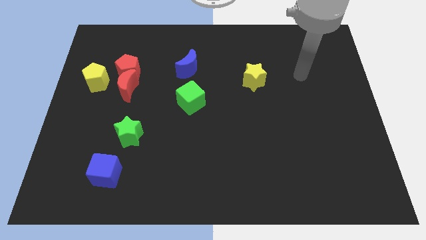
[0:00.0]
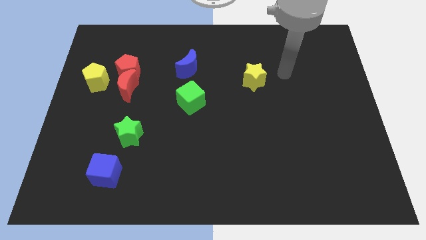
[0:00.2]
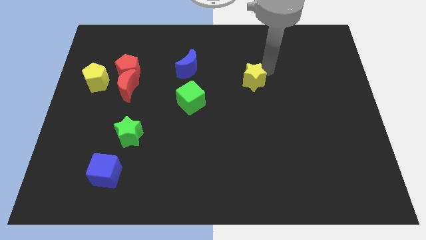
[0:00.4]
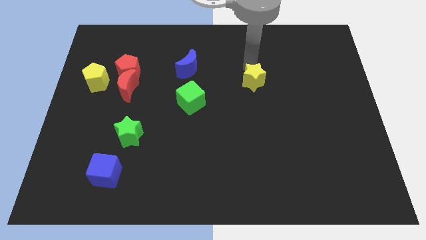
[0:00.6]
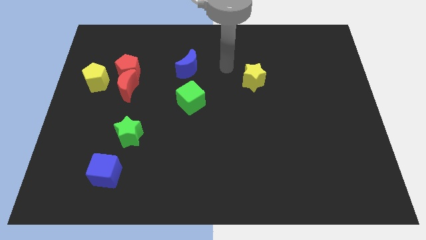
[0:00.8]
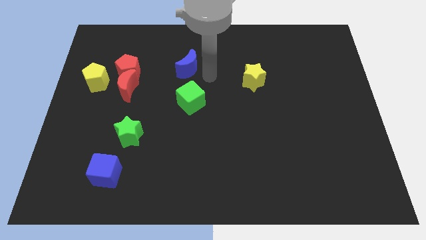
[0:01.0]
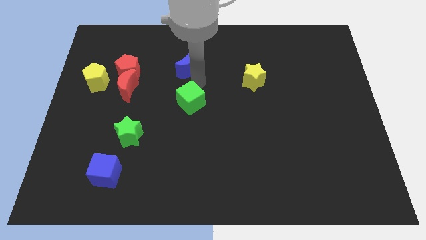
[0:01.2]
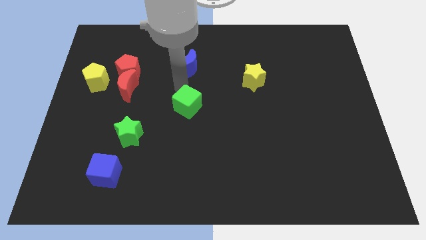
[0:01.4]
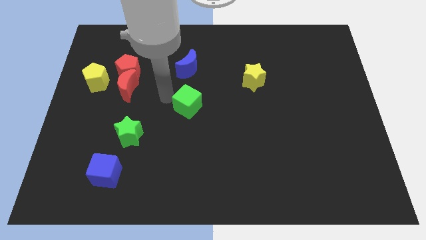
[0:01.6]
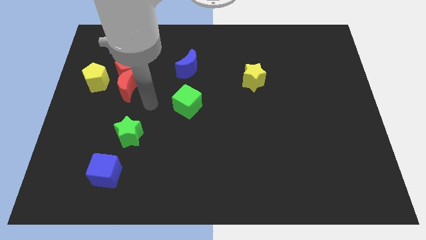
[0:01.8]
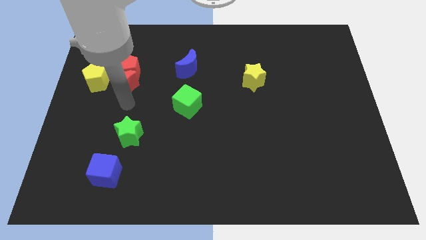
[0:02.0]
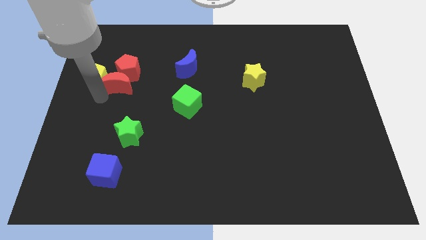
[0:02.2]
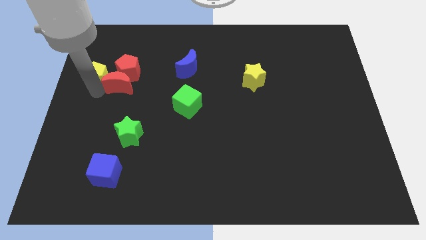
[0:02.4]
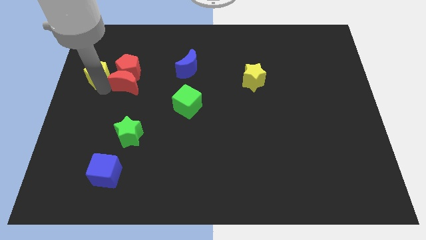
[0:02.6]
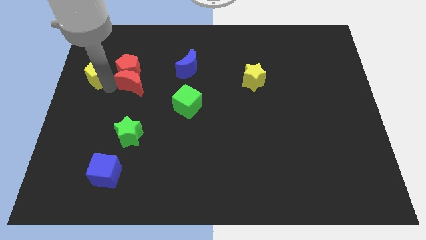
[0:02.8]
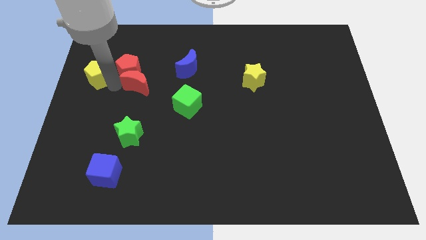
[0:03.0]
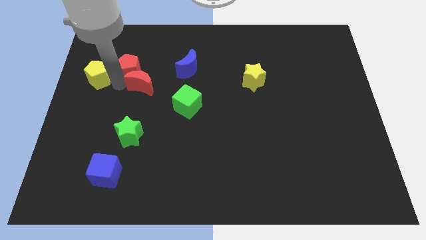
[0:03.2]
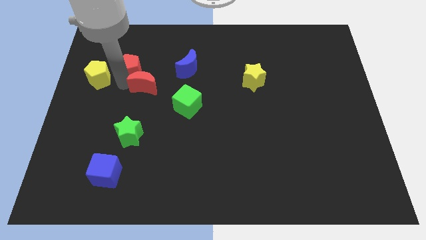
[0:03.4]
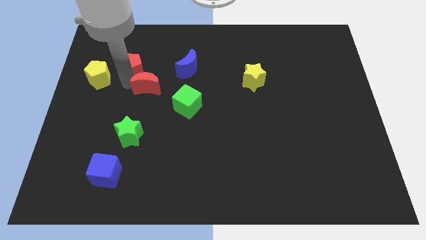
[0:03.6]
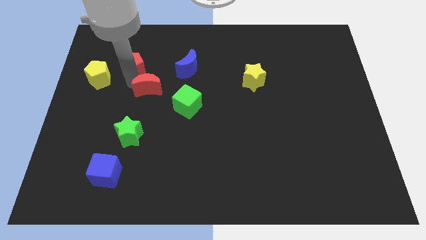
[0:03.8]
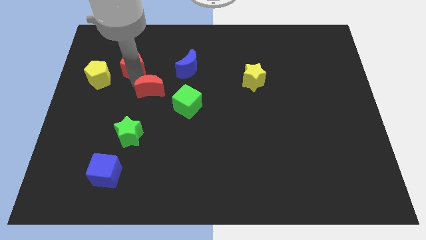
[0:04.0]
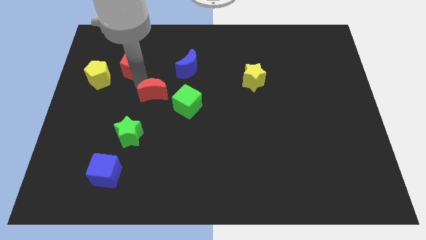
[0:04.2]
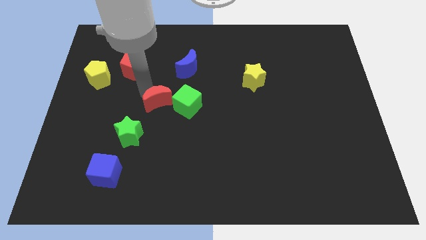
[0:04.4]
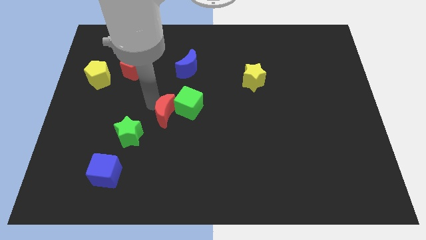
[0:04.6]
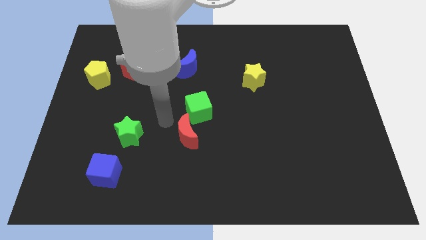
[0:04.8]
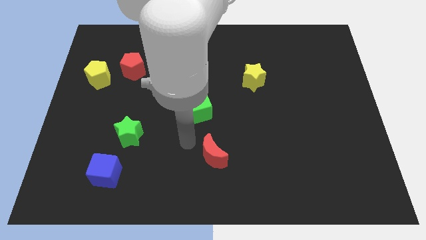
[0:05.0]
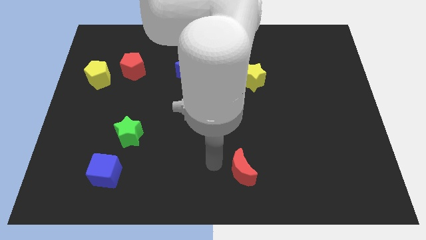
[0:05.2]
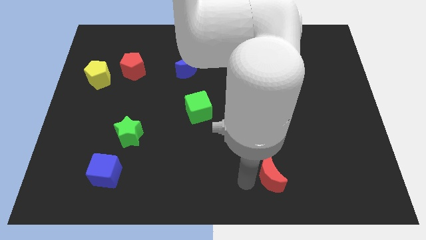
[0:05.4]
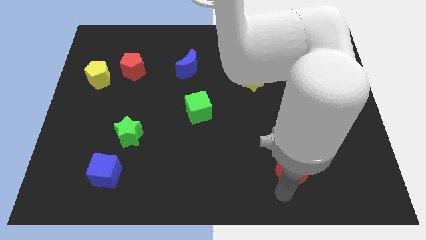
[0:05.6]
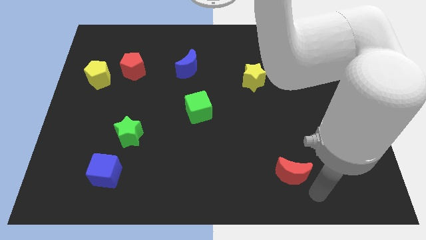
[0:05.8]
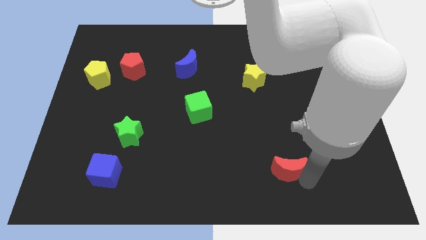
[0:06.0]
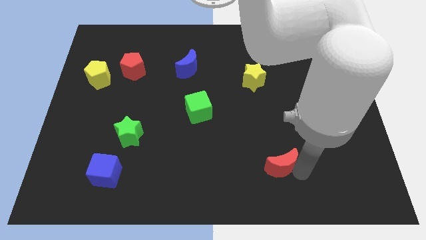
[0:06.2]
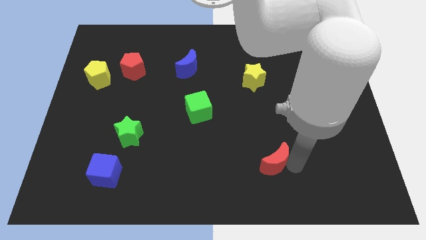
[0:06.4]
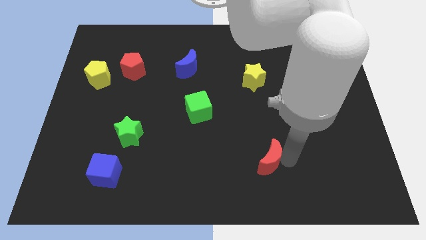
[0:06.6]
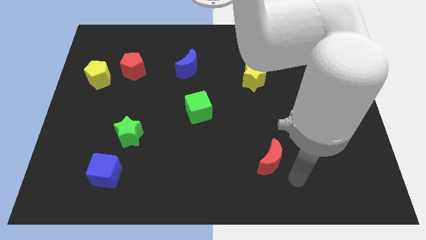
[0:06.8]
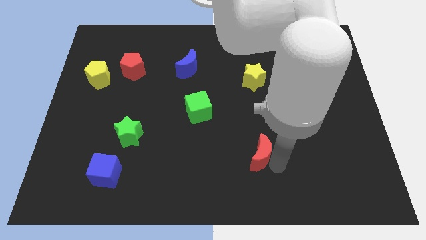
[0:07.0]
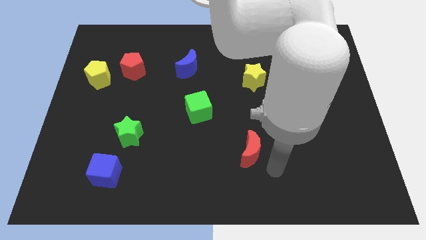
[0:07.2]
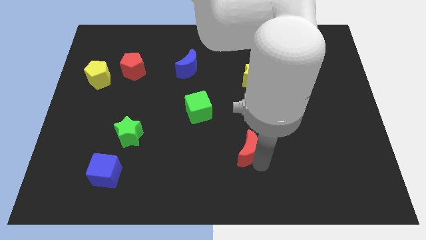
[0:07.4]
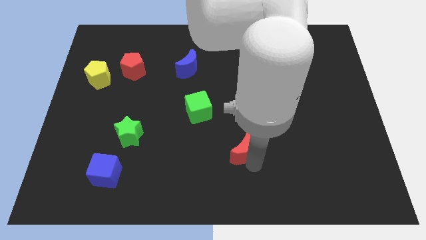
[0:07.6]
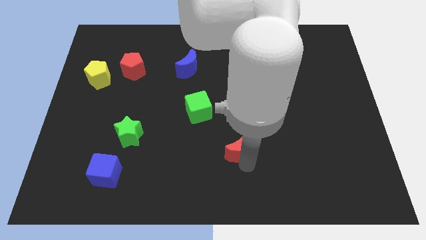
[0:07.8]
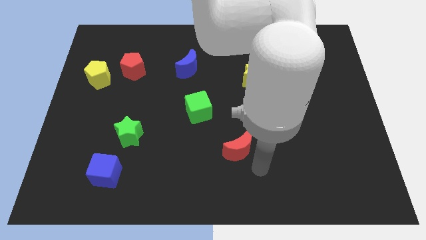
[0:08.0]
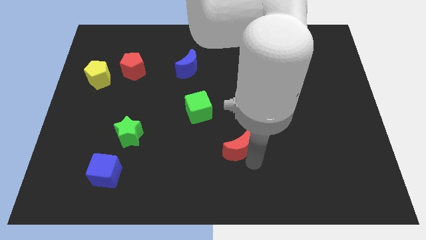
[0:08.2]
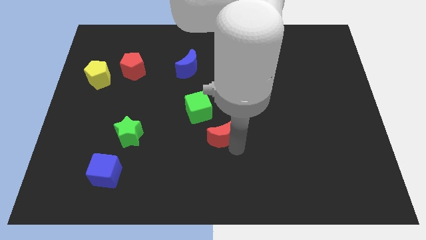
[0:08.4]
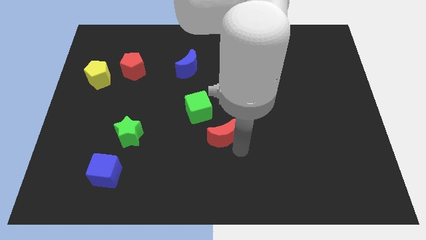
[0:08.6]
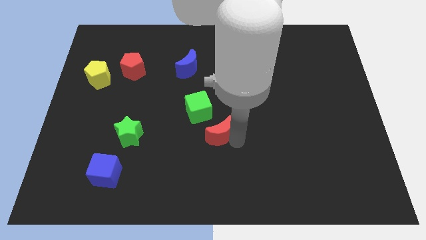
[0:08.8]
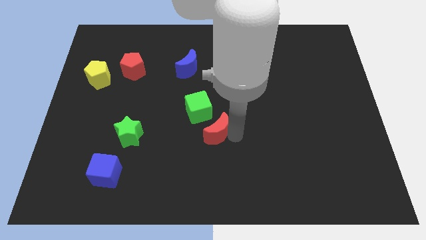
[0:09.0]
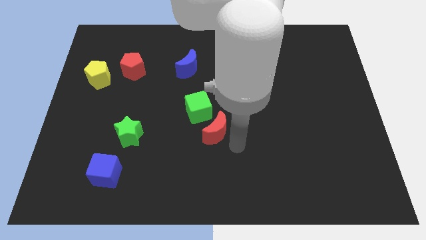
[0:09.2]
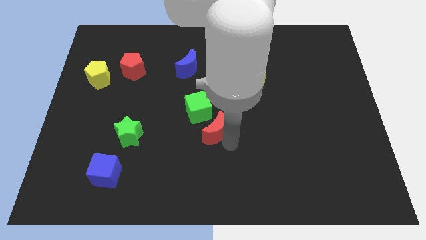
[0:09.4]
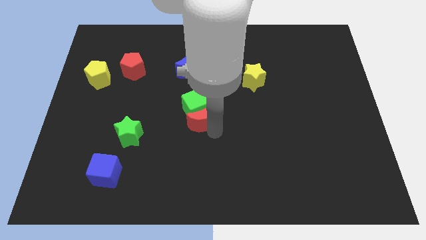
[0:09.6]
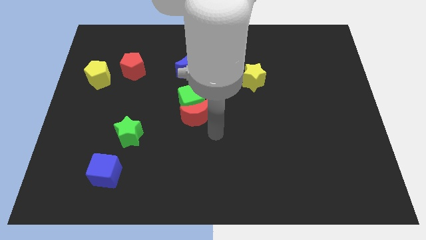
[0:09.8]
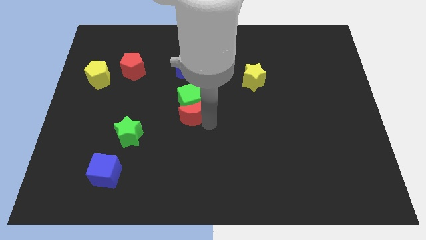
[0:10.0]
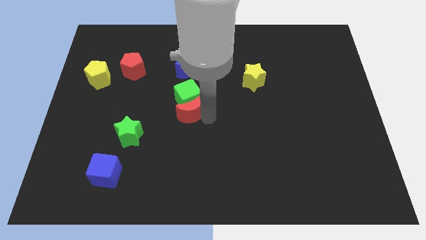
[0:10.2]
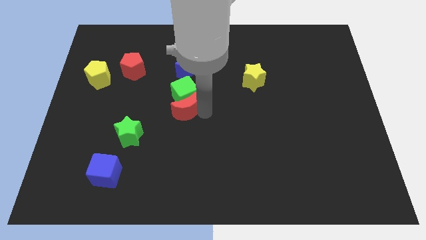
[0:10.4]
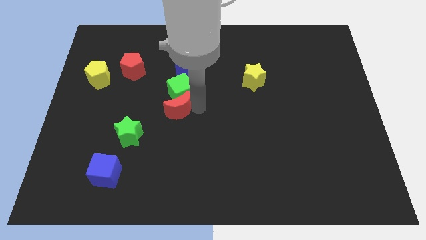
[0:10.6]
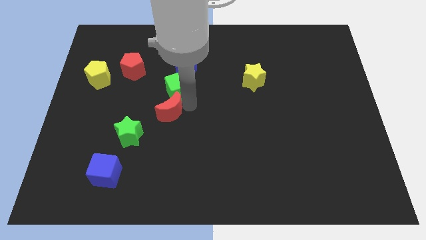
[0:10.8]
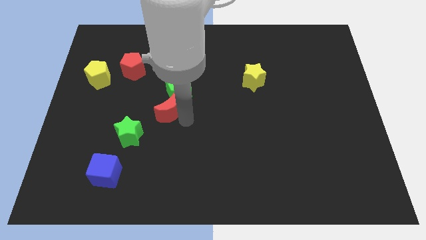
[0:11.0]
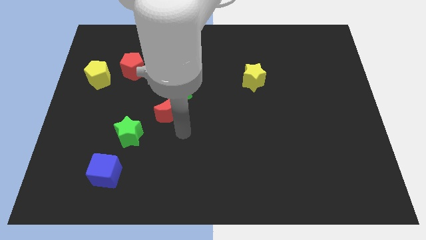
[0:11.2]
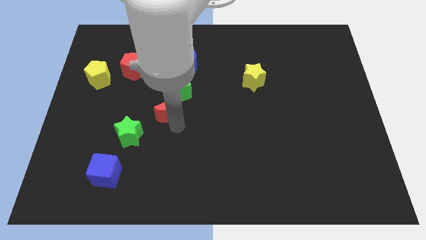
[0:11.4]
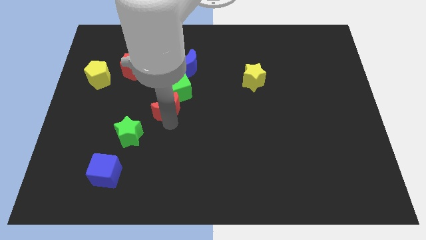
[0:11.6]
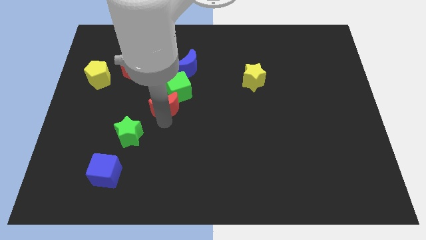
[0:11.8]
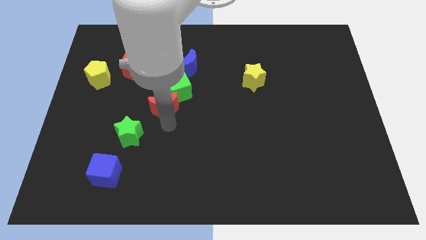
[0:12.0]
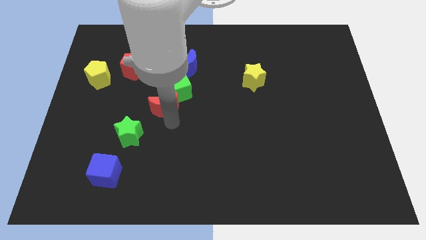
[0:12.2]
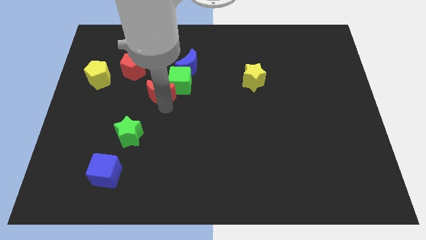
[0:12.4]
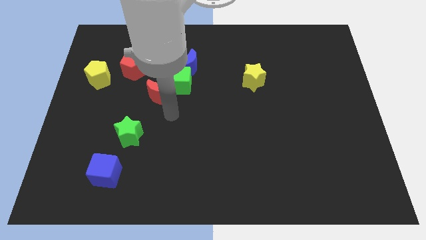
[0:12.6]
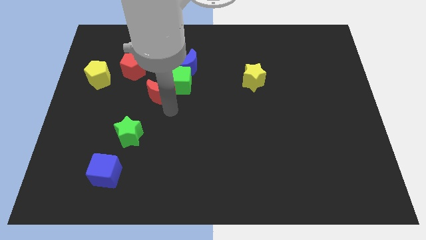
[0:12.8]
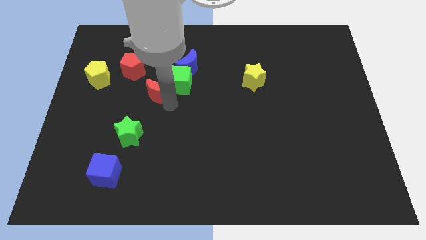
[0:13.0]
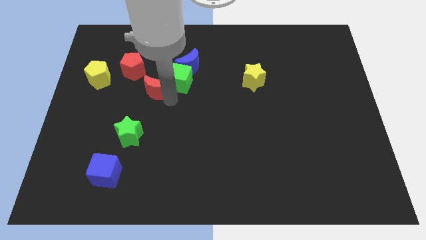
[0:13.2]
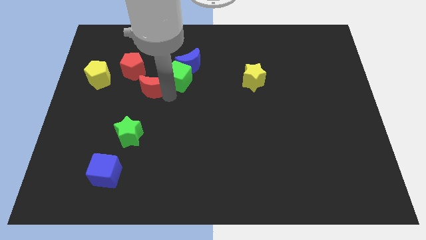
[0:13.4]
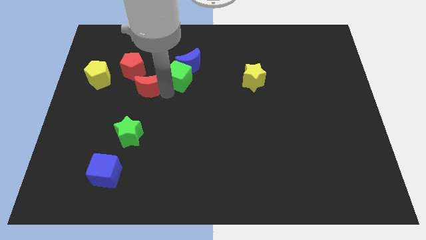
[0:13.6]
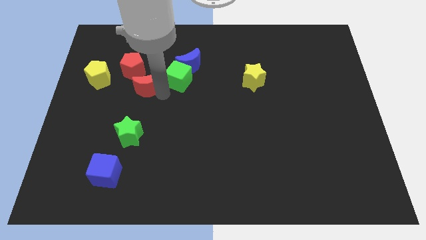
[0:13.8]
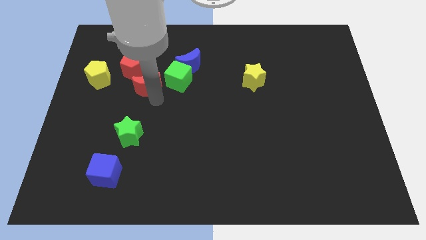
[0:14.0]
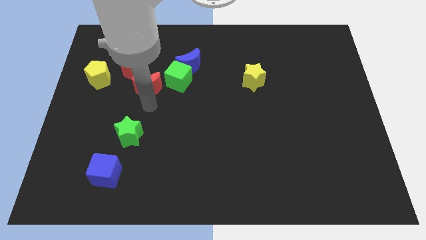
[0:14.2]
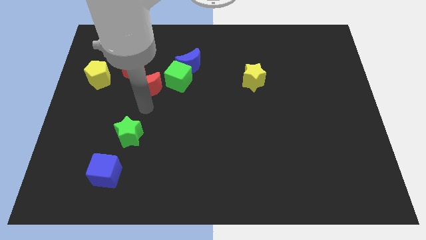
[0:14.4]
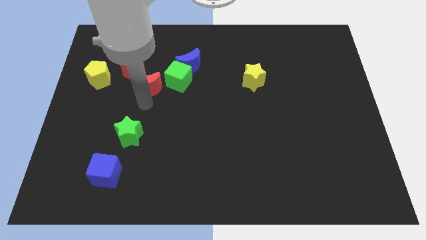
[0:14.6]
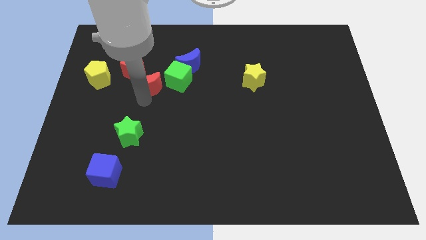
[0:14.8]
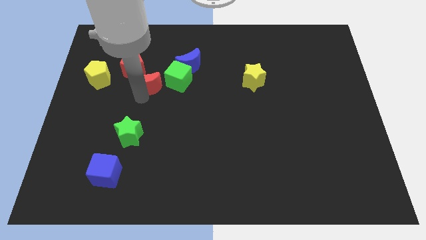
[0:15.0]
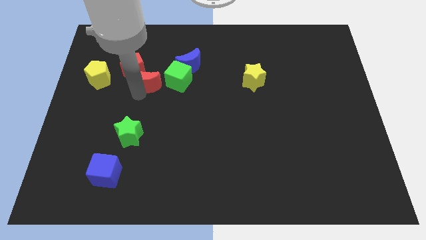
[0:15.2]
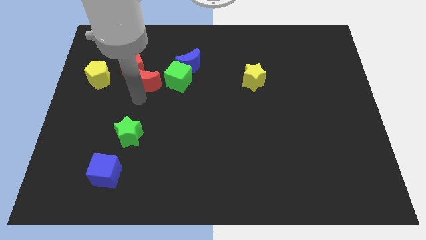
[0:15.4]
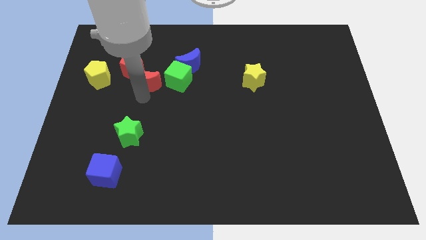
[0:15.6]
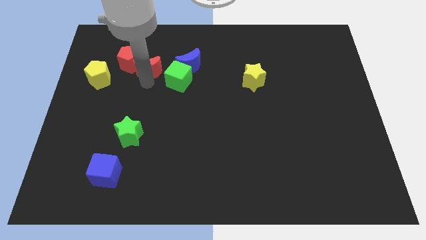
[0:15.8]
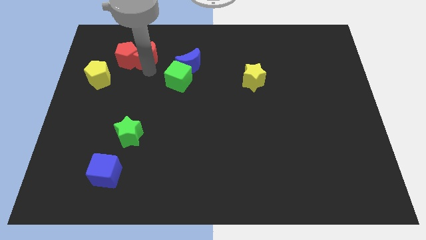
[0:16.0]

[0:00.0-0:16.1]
move the red moon to the top right side of the red pentagon
